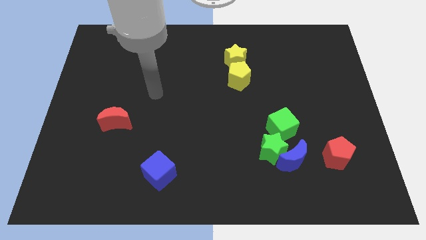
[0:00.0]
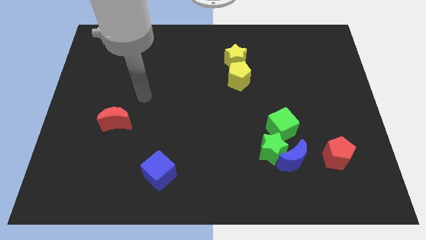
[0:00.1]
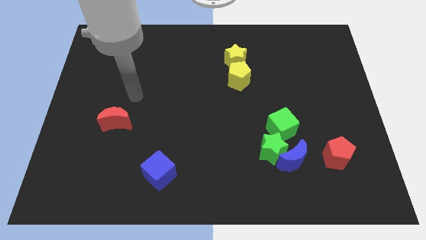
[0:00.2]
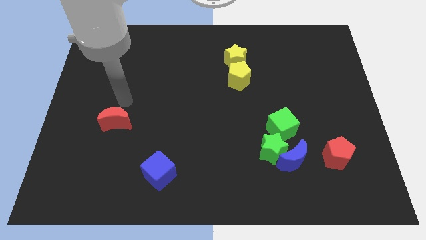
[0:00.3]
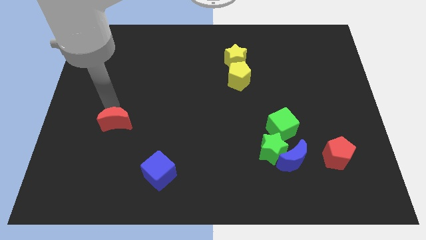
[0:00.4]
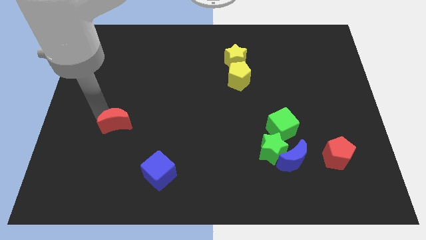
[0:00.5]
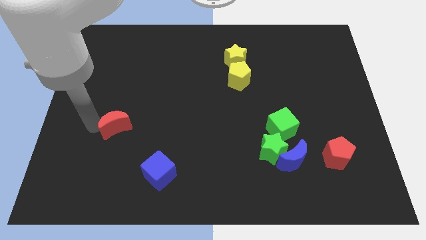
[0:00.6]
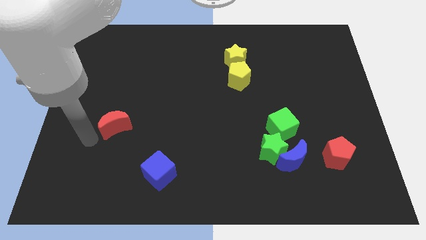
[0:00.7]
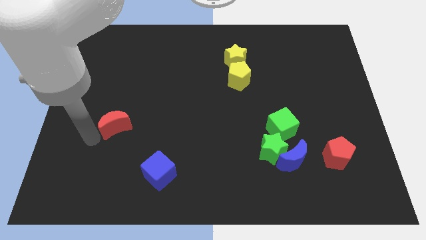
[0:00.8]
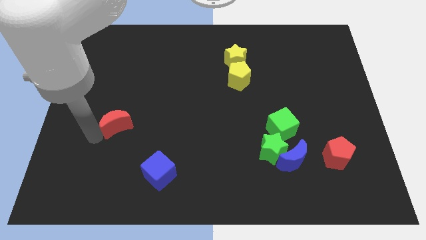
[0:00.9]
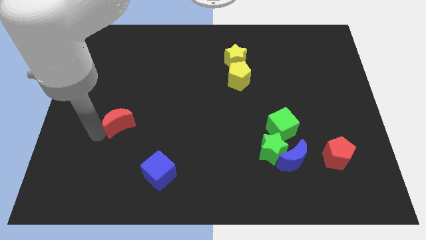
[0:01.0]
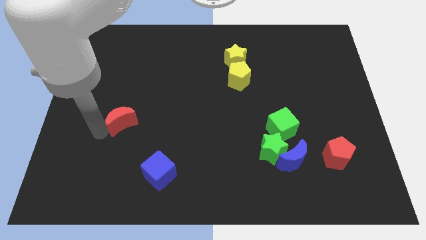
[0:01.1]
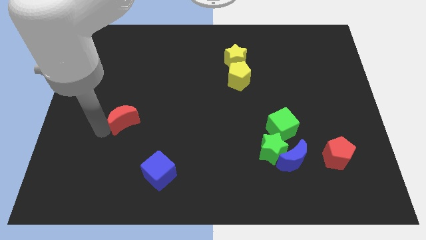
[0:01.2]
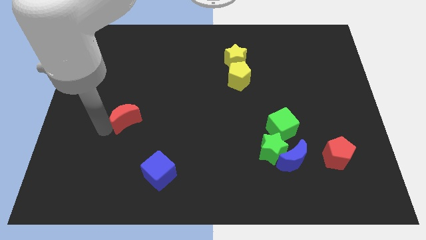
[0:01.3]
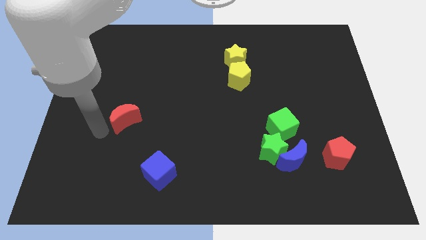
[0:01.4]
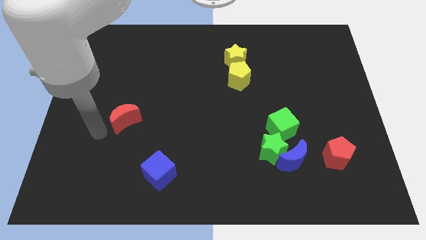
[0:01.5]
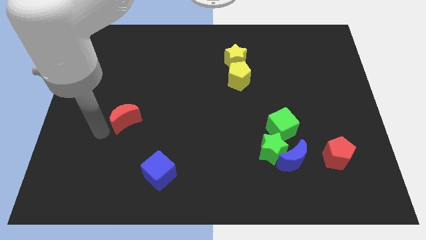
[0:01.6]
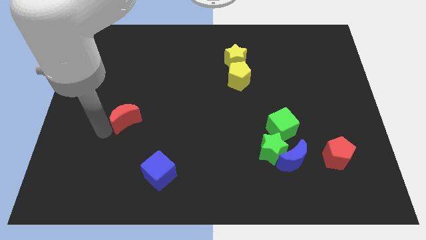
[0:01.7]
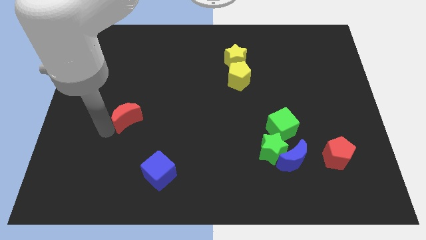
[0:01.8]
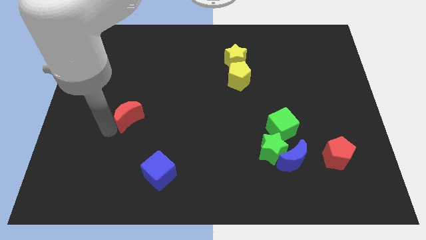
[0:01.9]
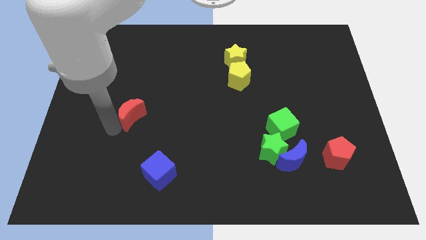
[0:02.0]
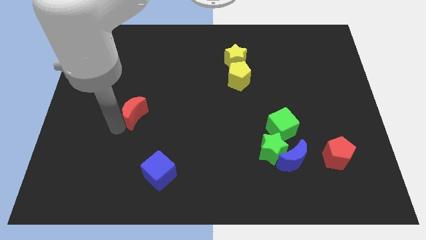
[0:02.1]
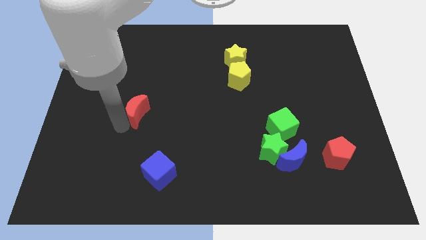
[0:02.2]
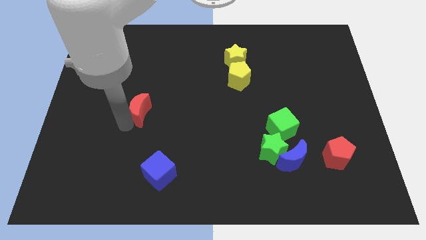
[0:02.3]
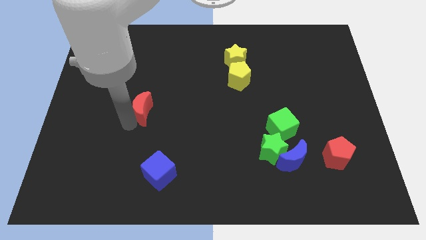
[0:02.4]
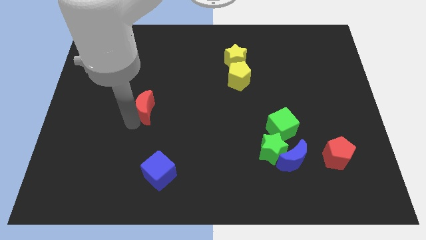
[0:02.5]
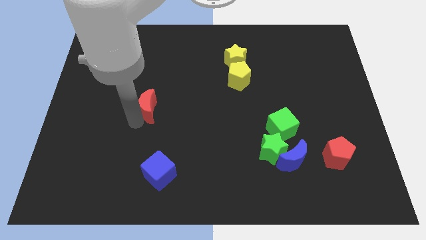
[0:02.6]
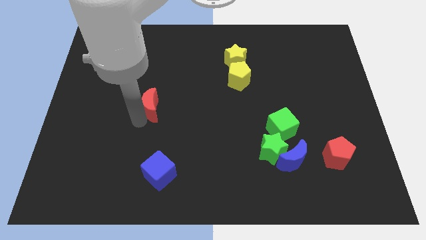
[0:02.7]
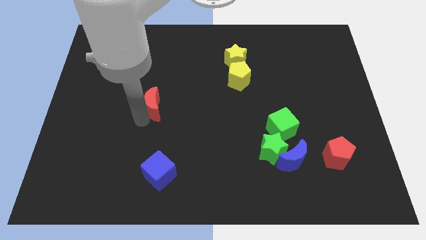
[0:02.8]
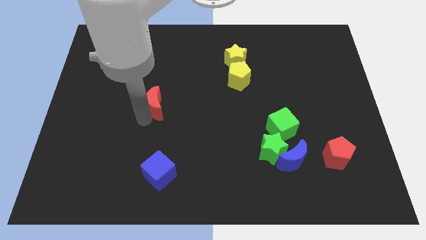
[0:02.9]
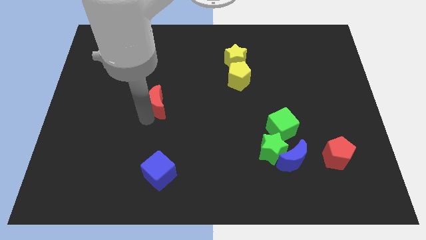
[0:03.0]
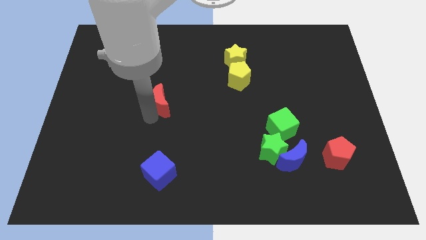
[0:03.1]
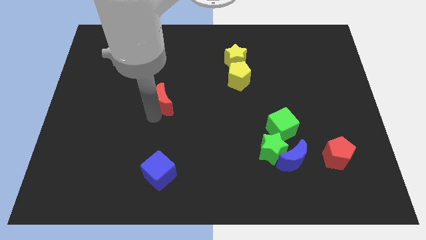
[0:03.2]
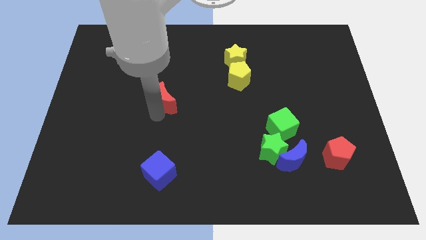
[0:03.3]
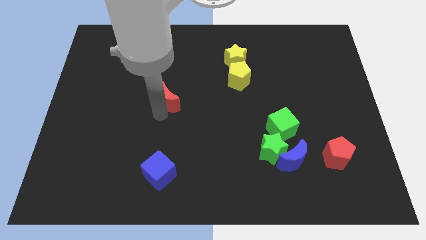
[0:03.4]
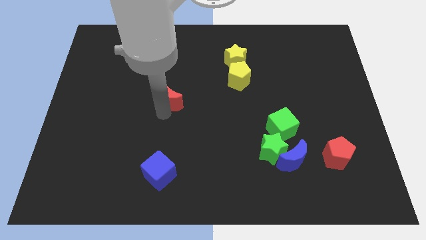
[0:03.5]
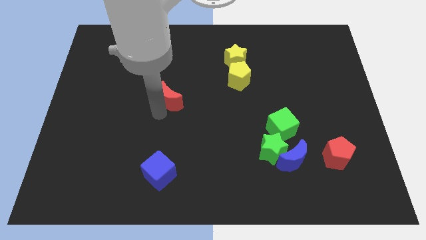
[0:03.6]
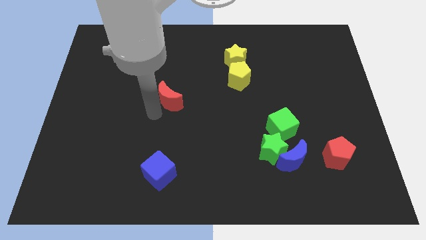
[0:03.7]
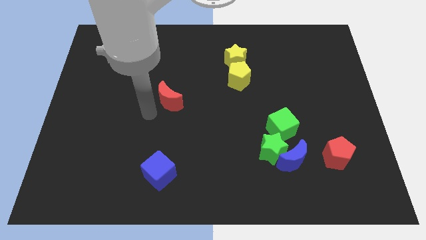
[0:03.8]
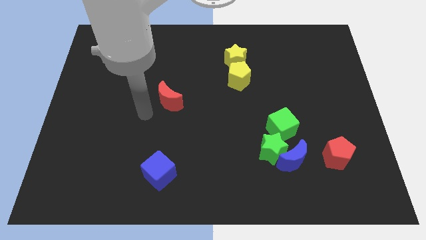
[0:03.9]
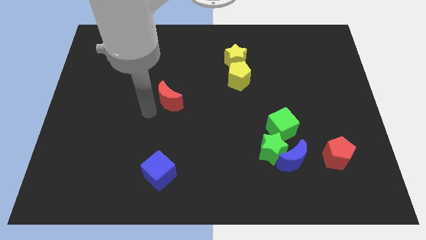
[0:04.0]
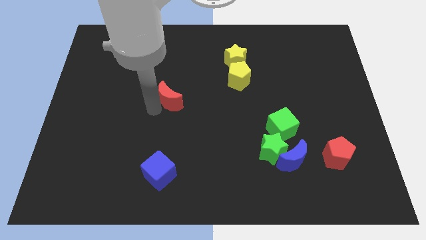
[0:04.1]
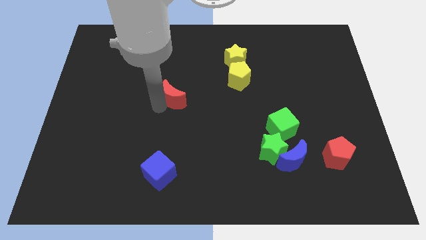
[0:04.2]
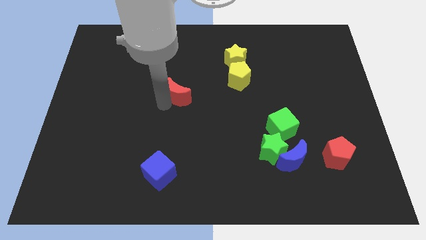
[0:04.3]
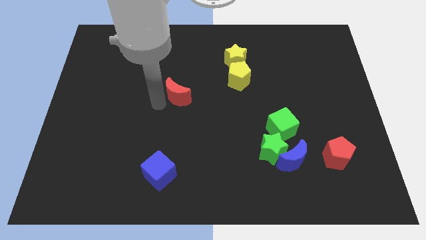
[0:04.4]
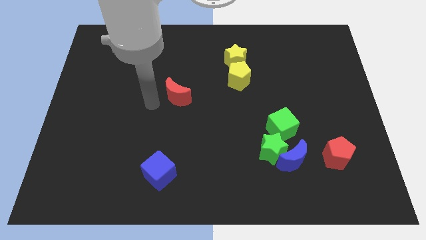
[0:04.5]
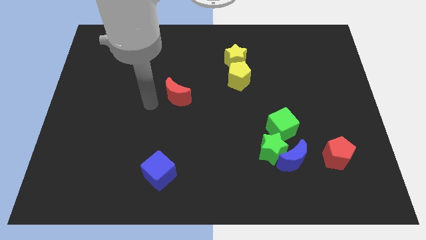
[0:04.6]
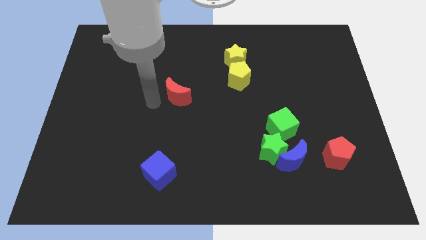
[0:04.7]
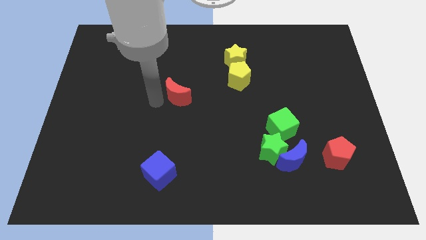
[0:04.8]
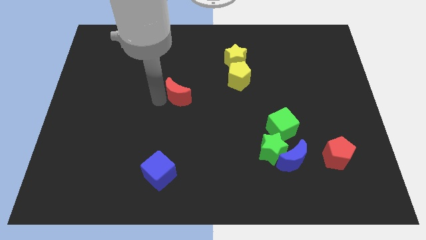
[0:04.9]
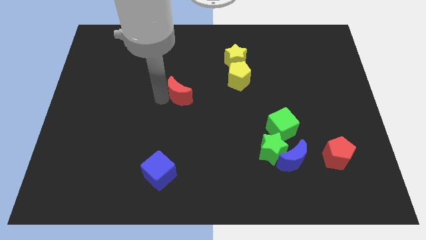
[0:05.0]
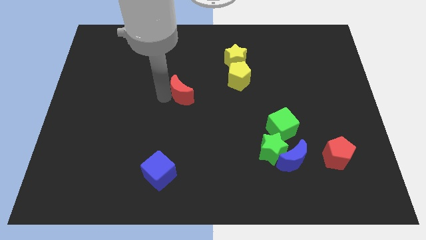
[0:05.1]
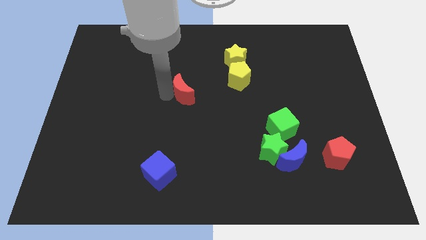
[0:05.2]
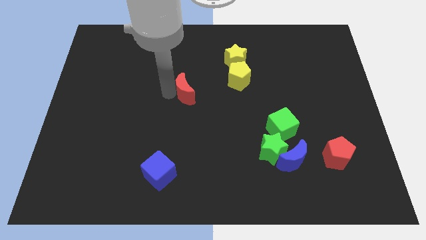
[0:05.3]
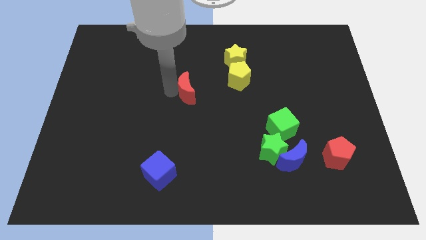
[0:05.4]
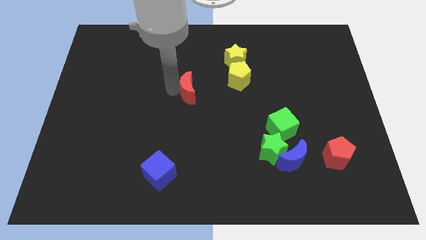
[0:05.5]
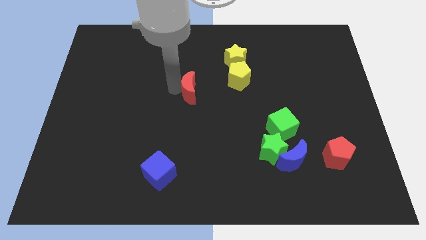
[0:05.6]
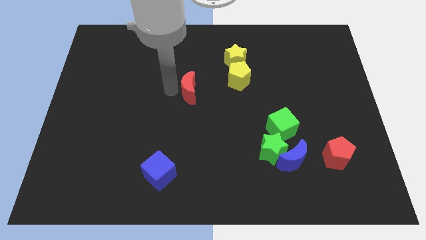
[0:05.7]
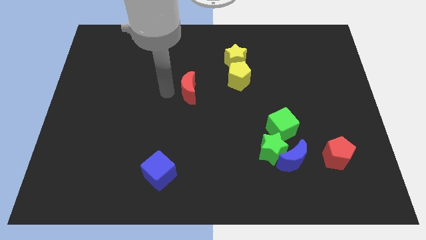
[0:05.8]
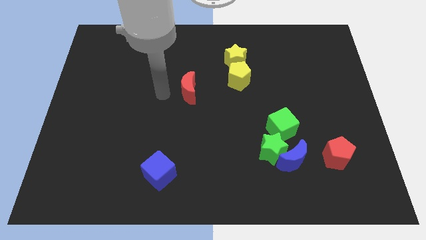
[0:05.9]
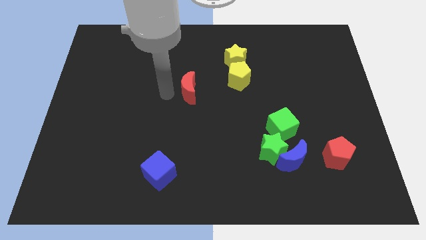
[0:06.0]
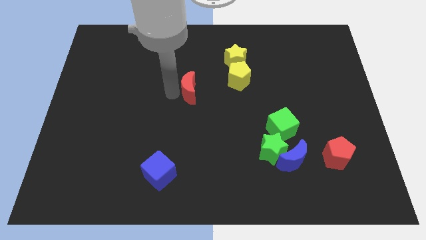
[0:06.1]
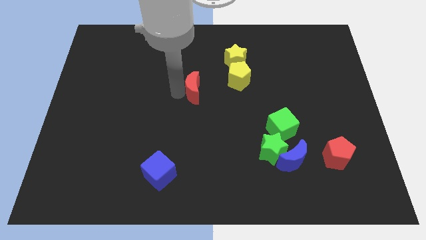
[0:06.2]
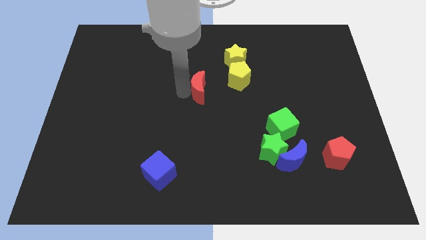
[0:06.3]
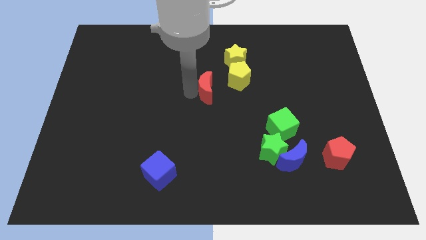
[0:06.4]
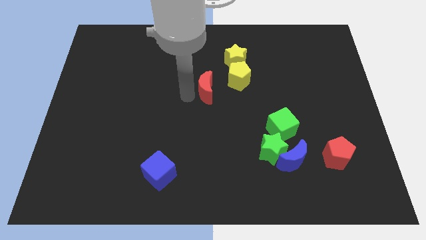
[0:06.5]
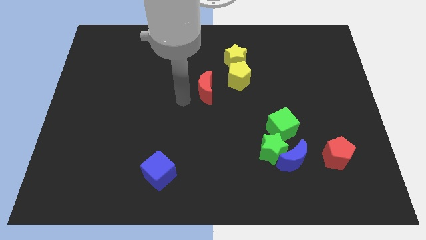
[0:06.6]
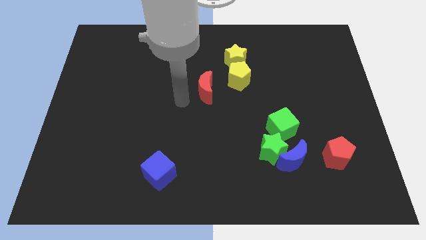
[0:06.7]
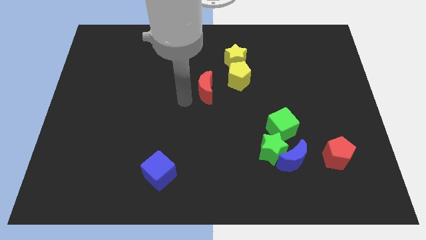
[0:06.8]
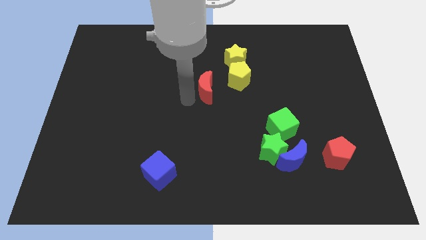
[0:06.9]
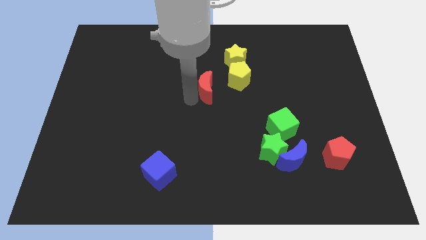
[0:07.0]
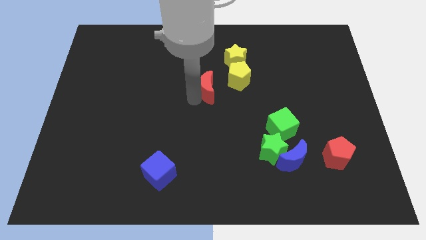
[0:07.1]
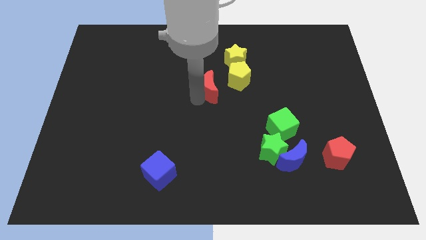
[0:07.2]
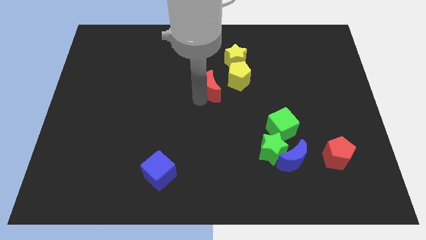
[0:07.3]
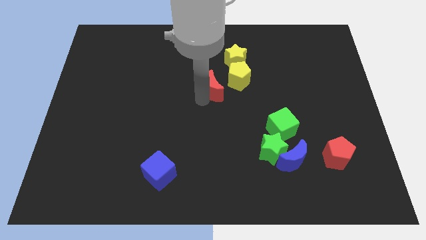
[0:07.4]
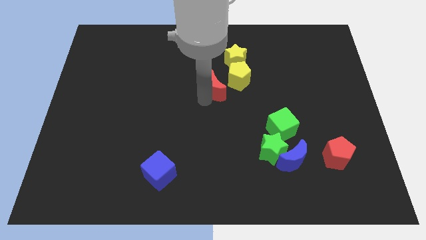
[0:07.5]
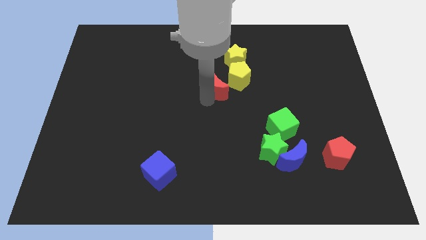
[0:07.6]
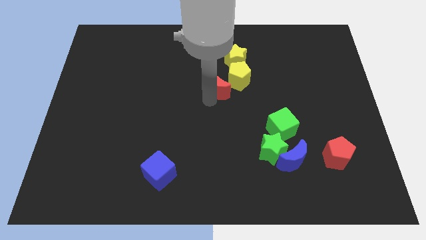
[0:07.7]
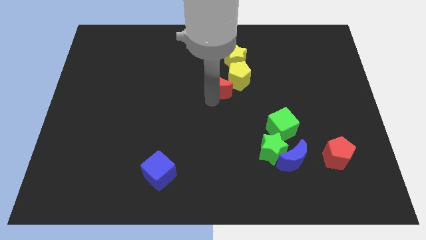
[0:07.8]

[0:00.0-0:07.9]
slide the red moon towards the yellow pentagon
